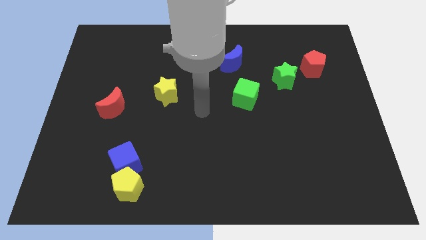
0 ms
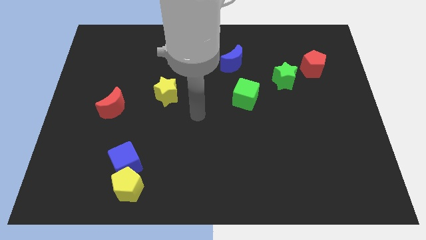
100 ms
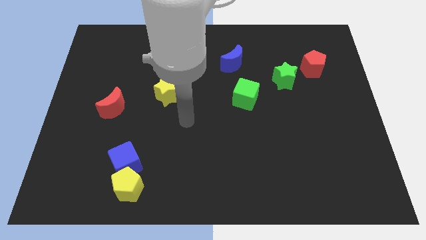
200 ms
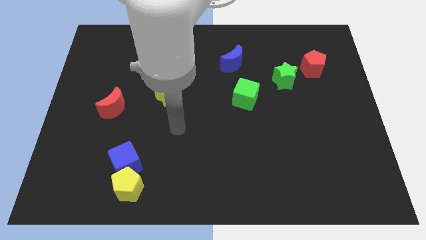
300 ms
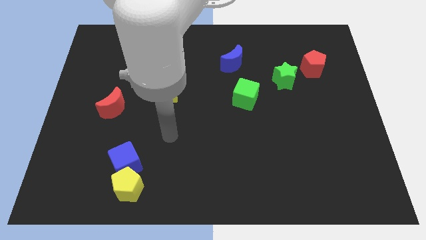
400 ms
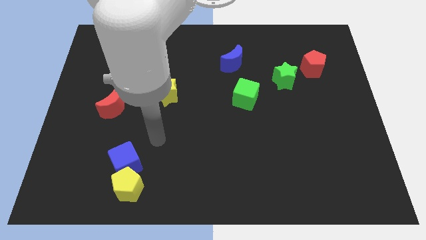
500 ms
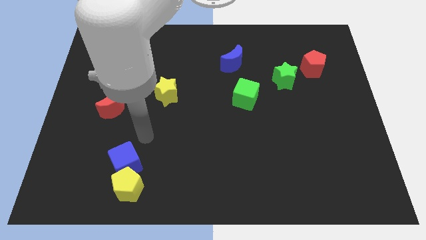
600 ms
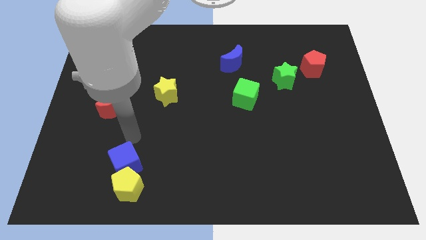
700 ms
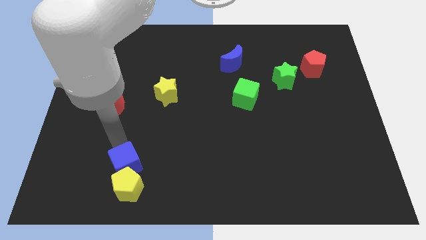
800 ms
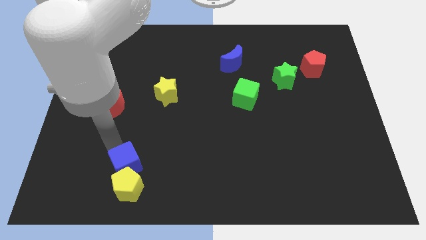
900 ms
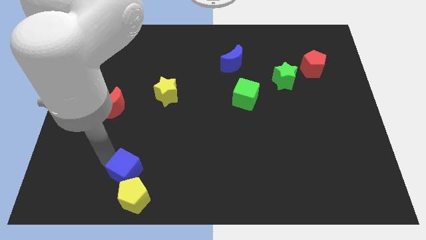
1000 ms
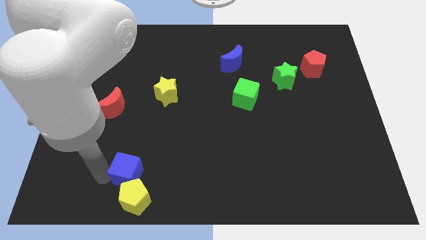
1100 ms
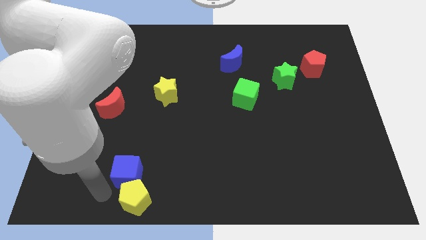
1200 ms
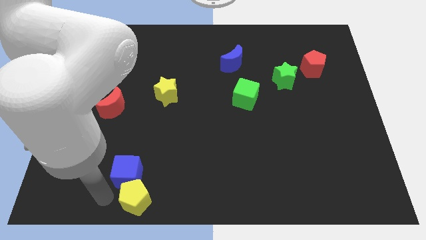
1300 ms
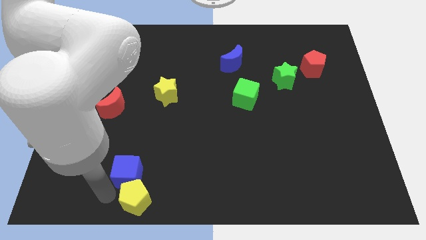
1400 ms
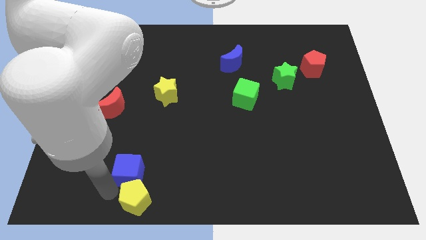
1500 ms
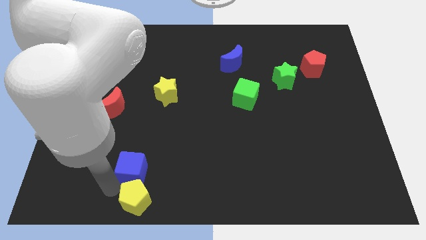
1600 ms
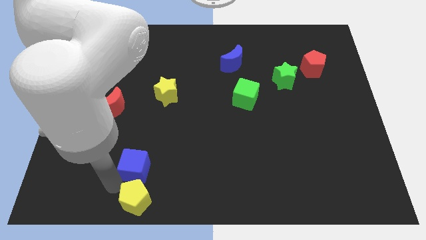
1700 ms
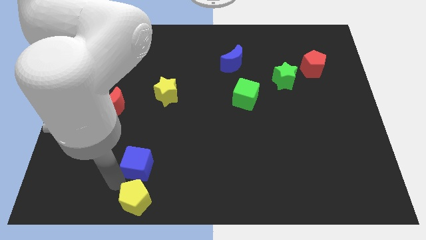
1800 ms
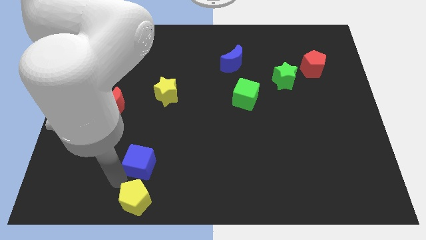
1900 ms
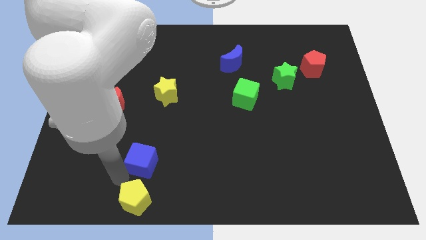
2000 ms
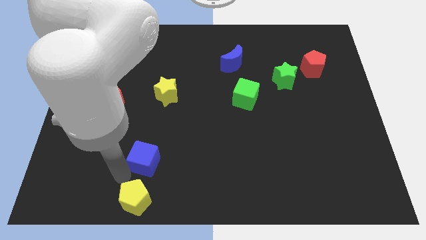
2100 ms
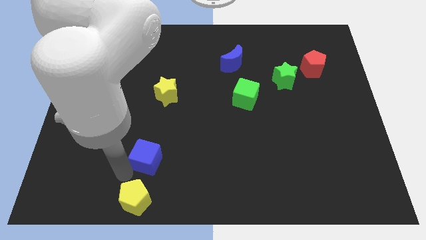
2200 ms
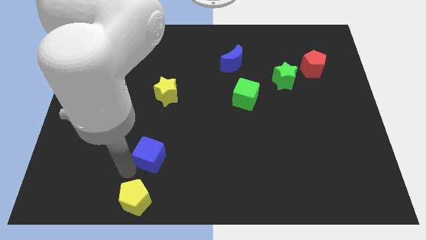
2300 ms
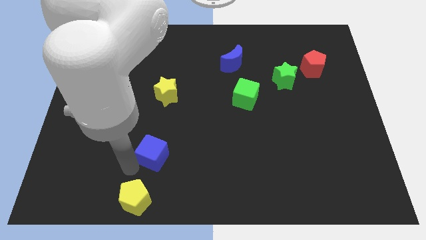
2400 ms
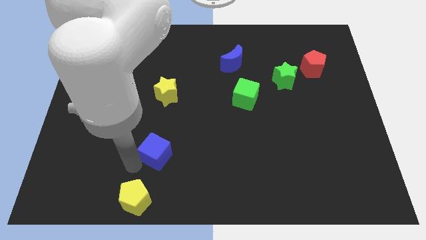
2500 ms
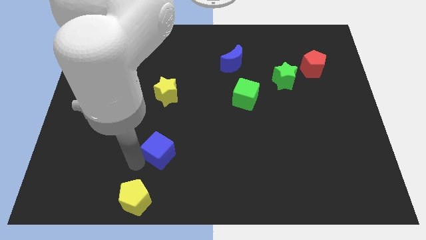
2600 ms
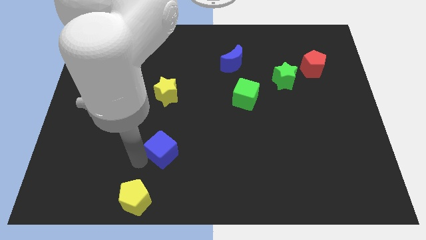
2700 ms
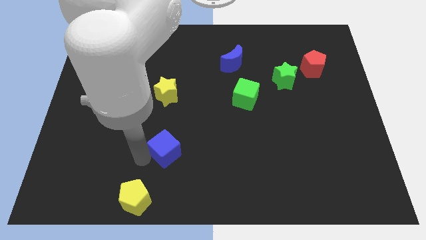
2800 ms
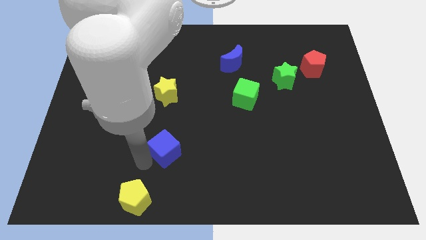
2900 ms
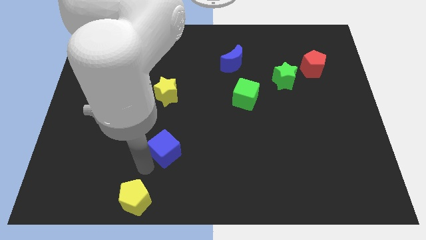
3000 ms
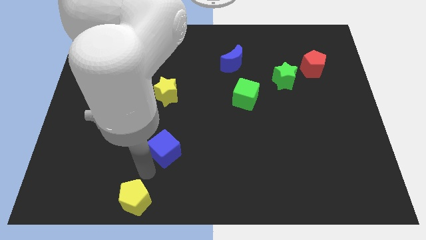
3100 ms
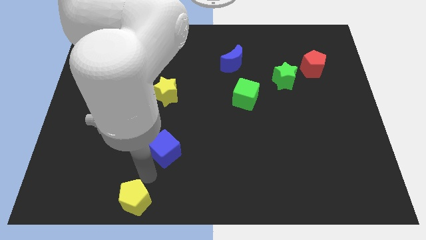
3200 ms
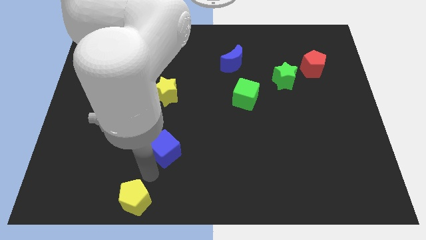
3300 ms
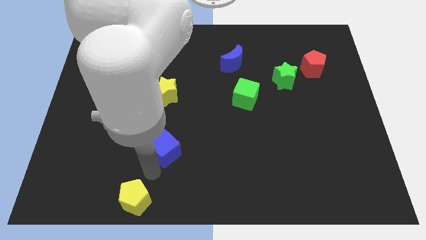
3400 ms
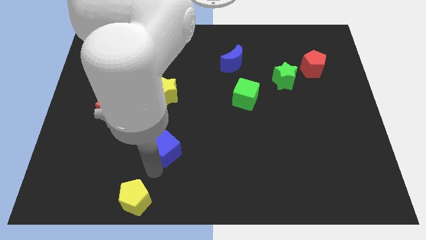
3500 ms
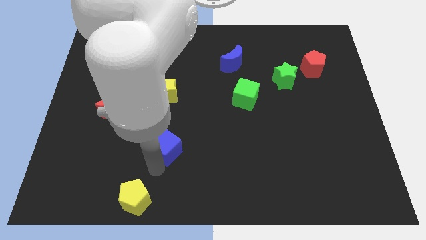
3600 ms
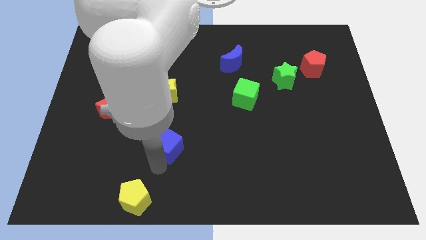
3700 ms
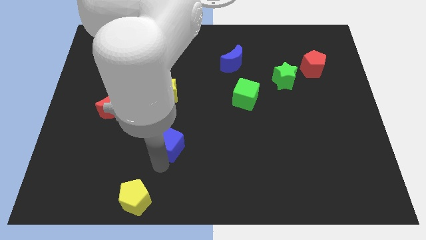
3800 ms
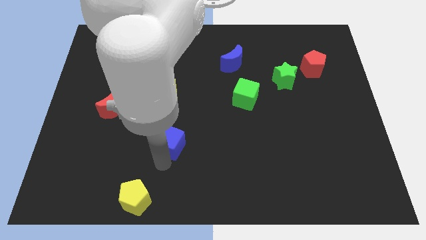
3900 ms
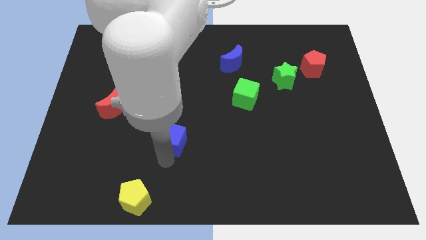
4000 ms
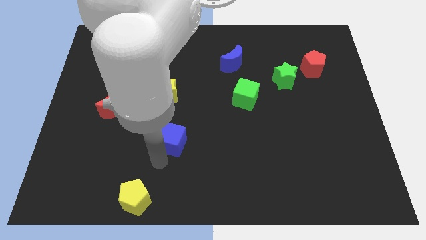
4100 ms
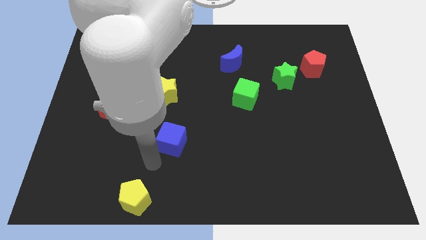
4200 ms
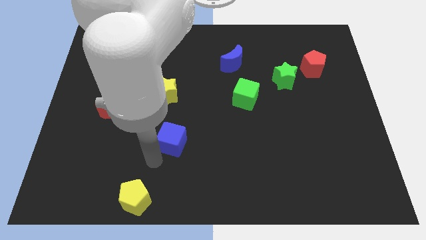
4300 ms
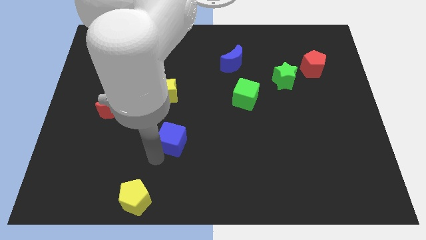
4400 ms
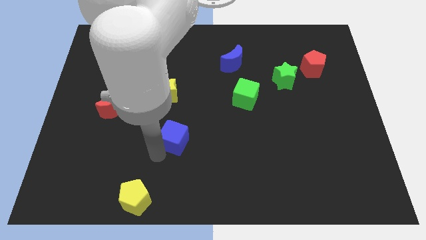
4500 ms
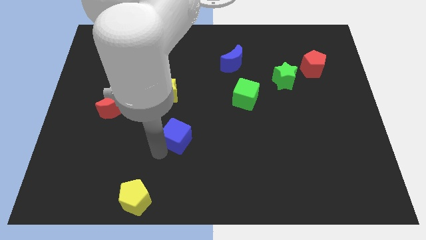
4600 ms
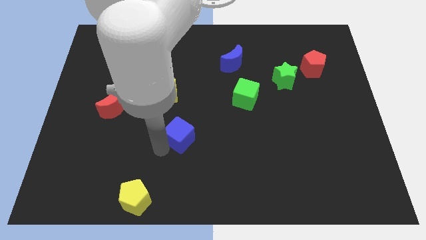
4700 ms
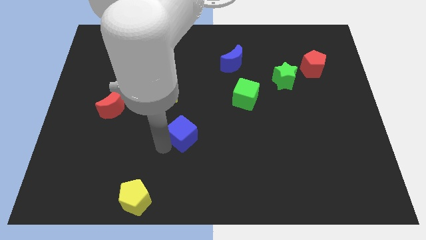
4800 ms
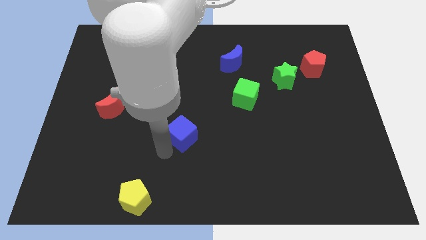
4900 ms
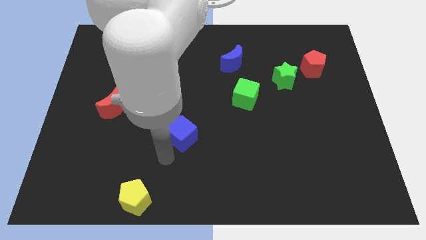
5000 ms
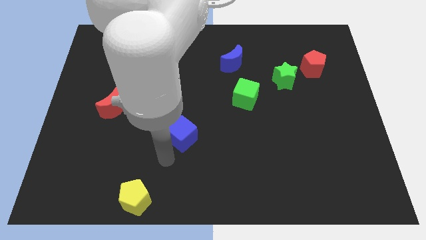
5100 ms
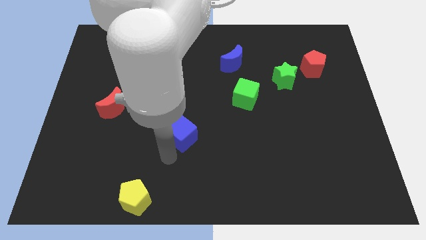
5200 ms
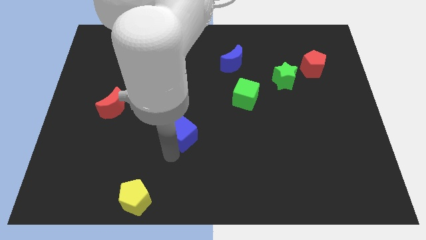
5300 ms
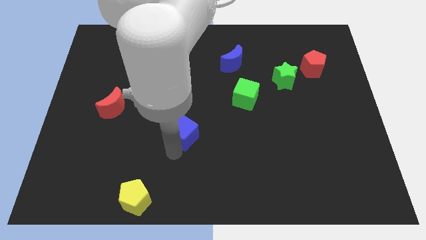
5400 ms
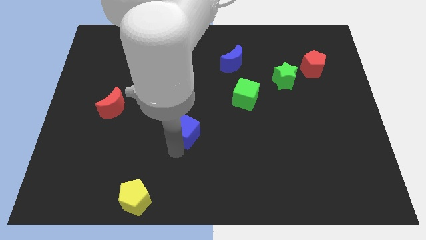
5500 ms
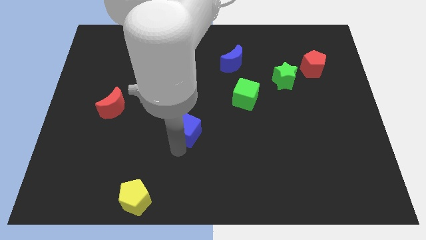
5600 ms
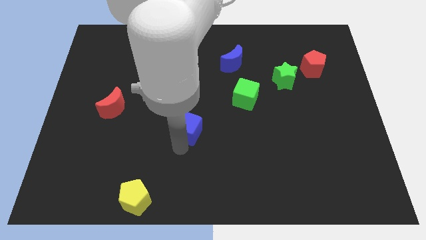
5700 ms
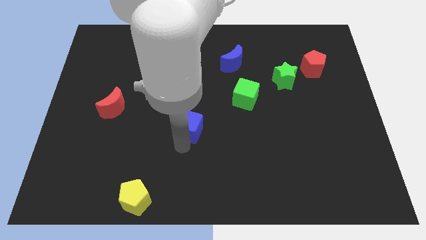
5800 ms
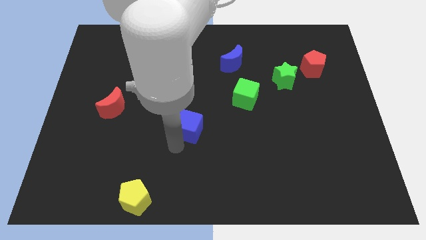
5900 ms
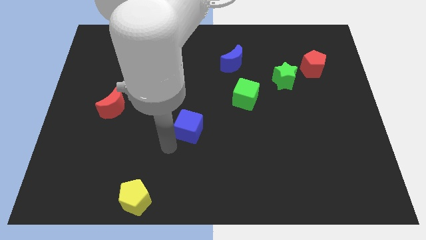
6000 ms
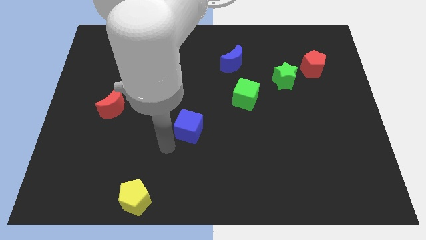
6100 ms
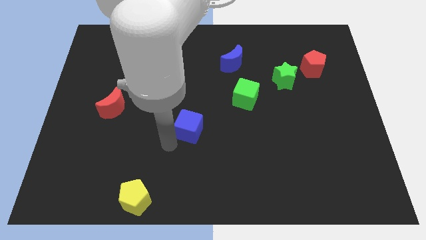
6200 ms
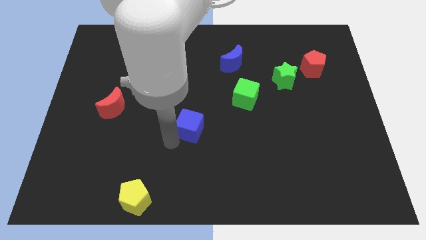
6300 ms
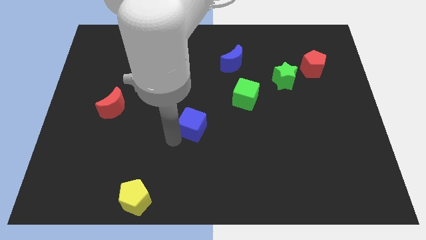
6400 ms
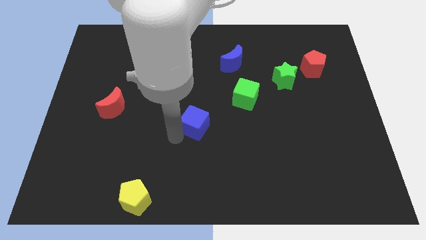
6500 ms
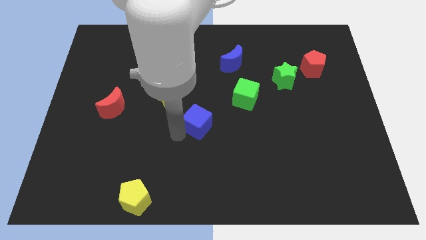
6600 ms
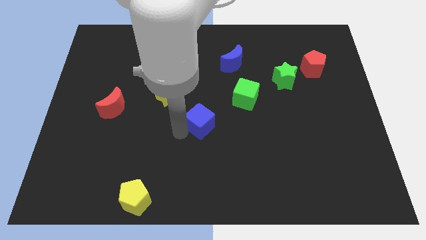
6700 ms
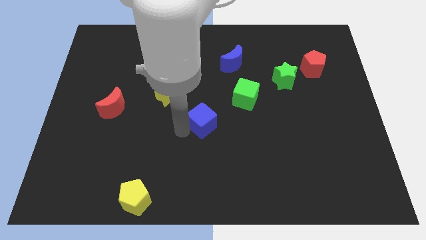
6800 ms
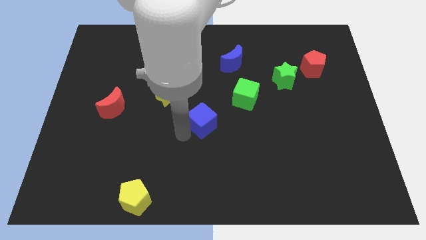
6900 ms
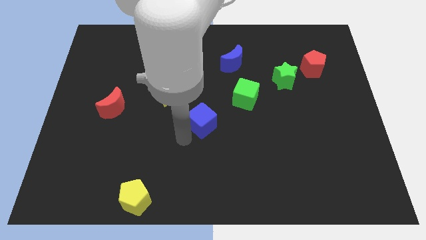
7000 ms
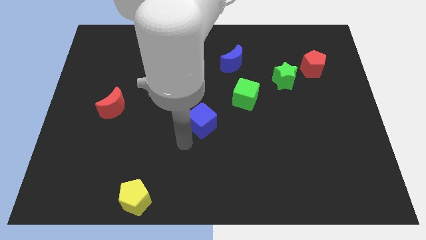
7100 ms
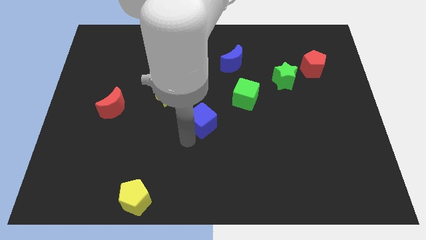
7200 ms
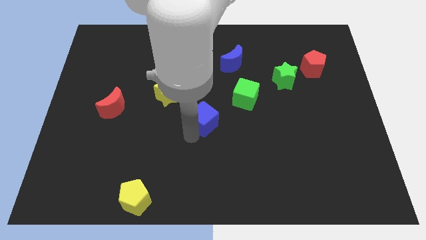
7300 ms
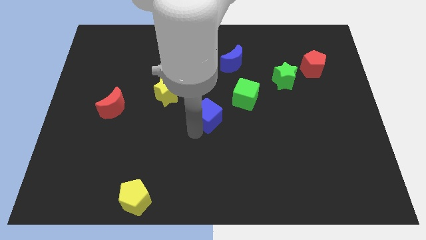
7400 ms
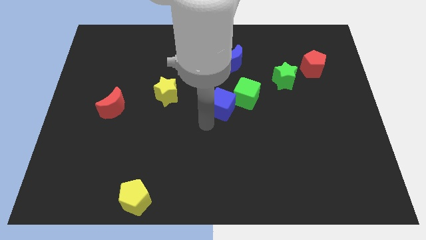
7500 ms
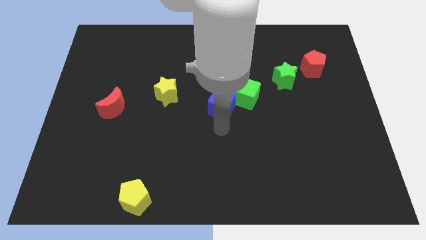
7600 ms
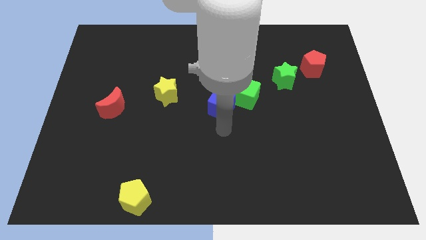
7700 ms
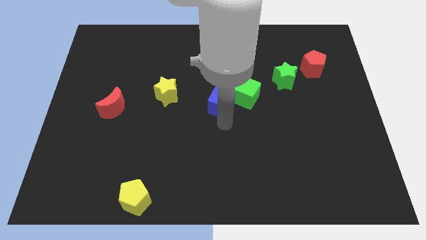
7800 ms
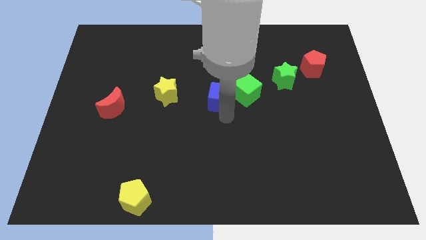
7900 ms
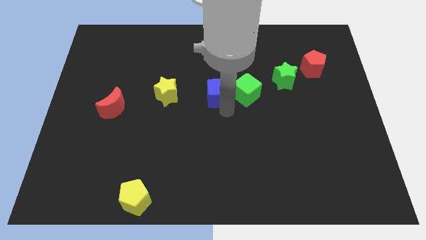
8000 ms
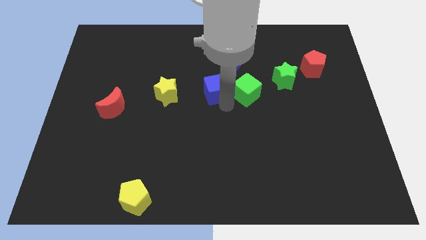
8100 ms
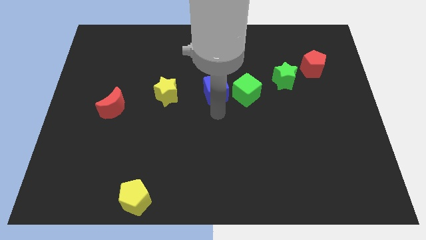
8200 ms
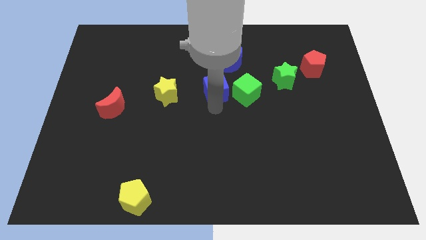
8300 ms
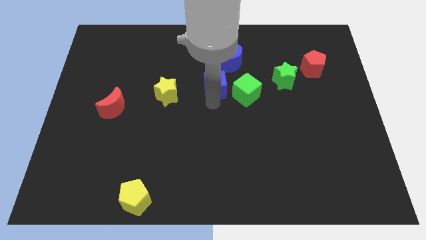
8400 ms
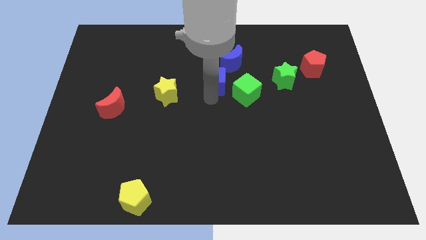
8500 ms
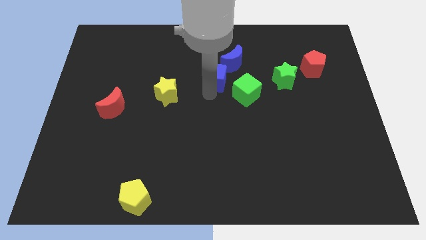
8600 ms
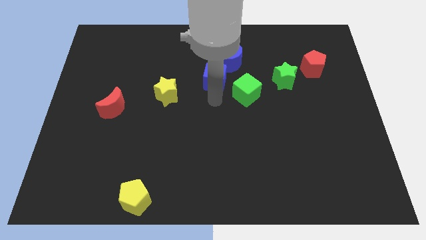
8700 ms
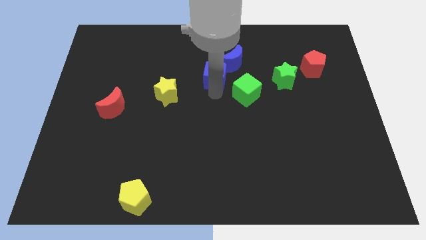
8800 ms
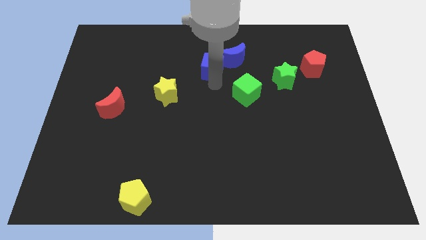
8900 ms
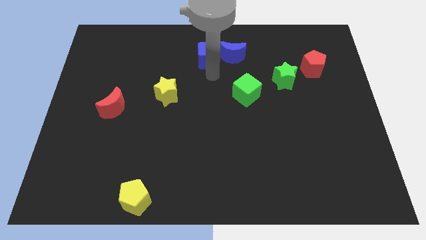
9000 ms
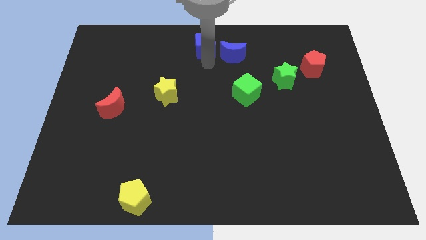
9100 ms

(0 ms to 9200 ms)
push the blue cube to the top
